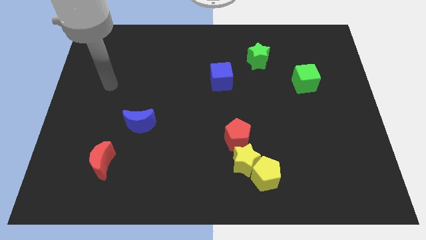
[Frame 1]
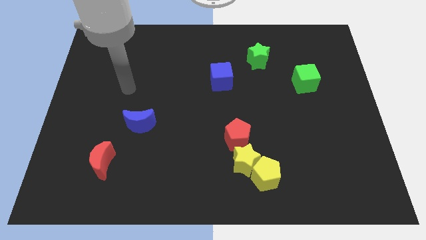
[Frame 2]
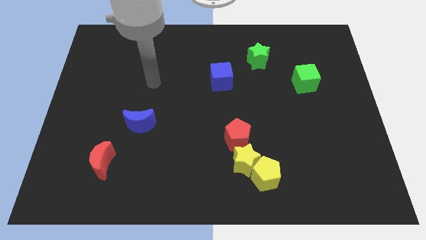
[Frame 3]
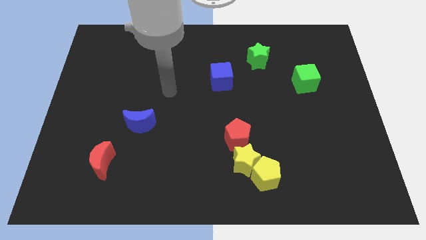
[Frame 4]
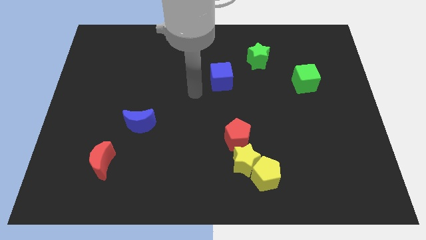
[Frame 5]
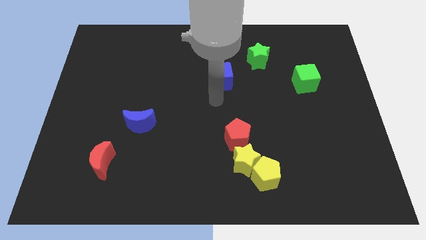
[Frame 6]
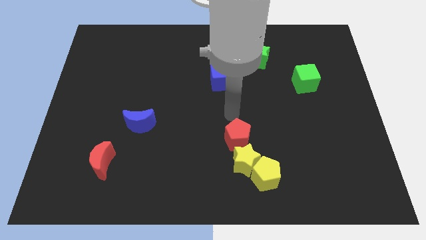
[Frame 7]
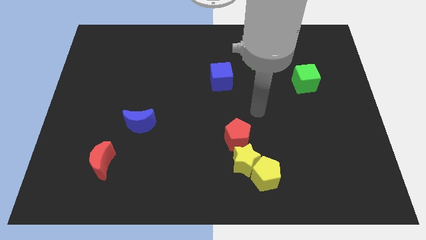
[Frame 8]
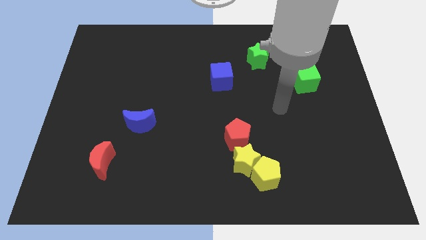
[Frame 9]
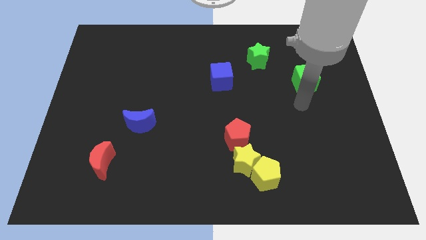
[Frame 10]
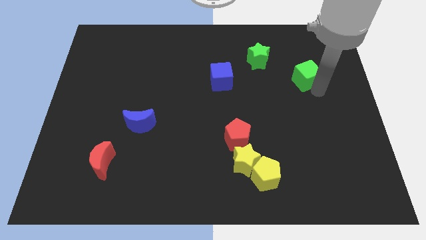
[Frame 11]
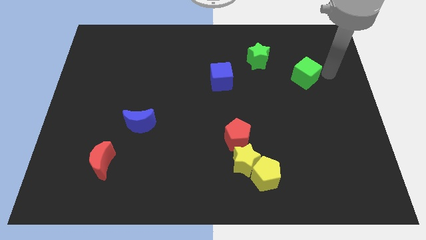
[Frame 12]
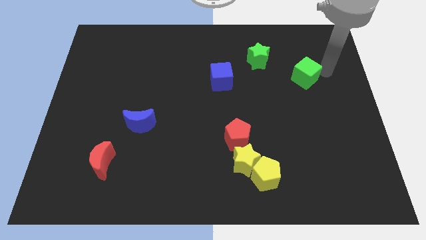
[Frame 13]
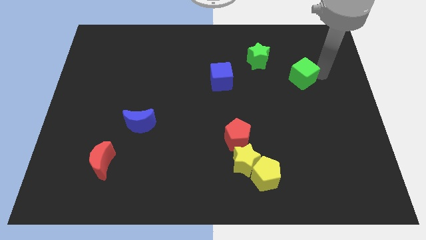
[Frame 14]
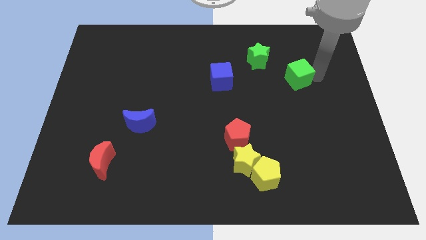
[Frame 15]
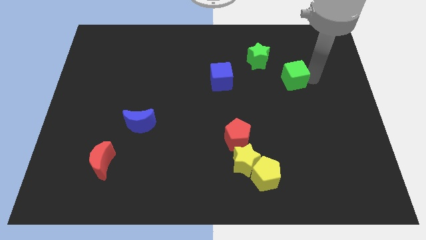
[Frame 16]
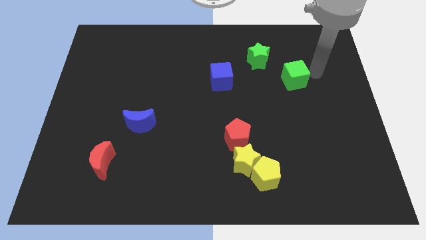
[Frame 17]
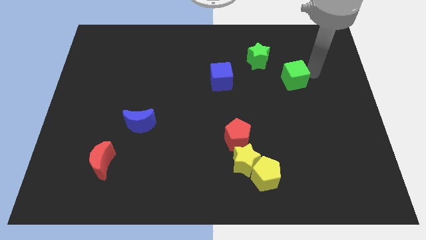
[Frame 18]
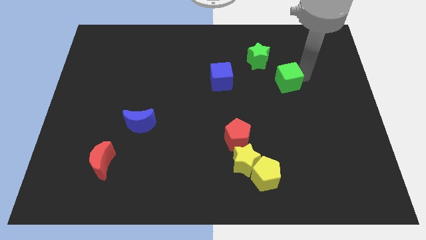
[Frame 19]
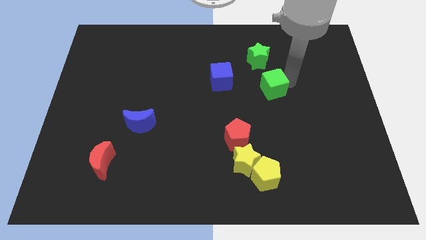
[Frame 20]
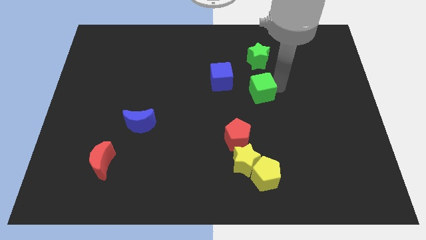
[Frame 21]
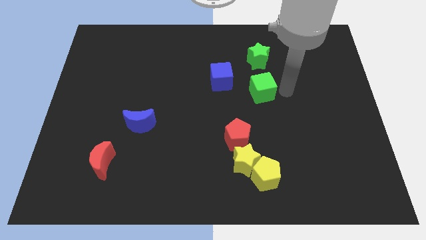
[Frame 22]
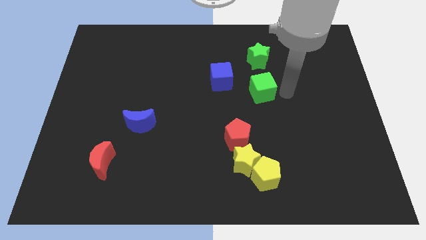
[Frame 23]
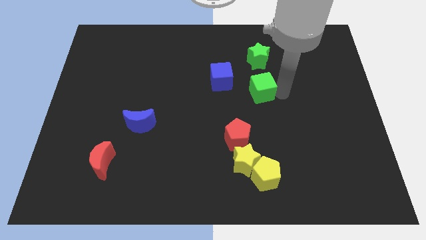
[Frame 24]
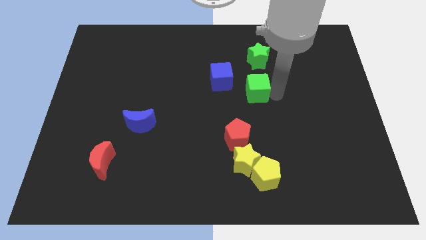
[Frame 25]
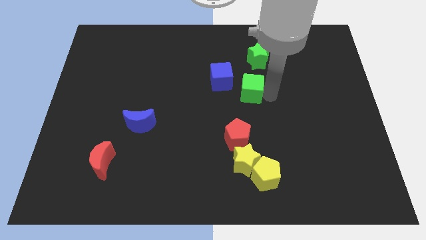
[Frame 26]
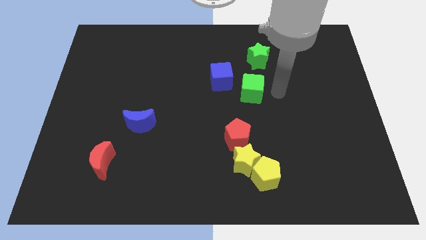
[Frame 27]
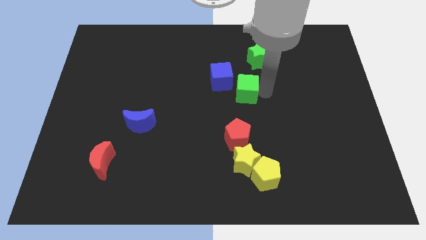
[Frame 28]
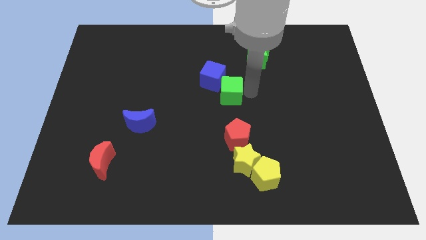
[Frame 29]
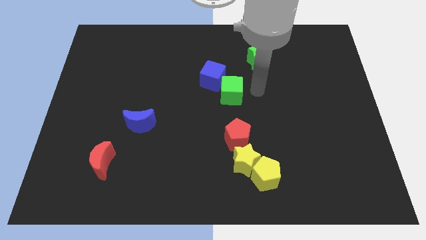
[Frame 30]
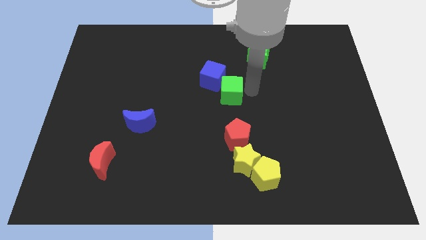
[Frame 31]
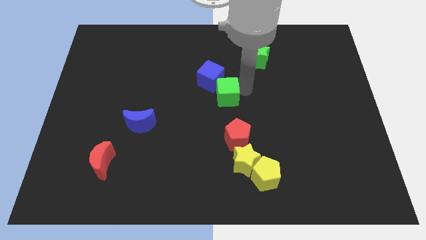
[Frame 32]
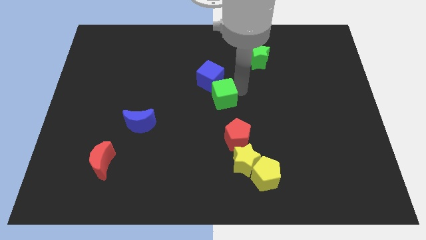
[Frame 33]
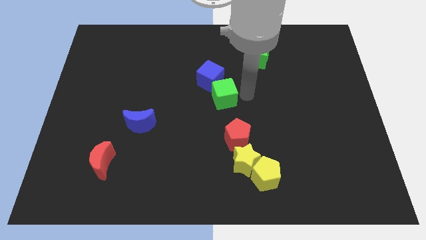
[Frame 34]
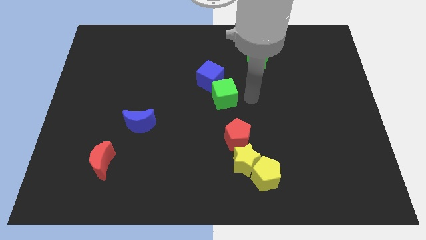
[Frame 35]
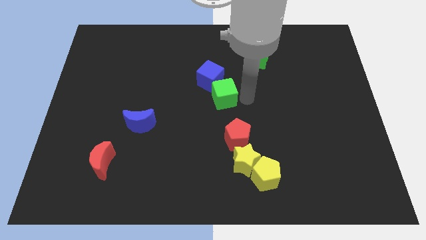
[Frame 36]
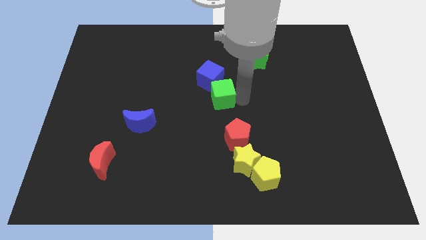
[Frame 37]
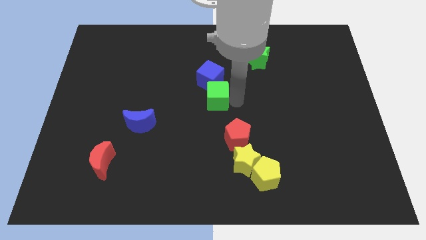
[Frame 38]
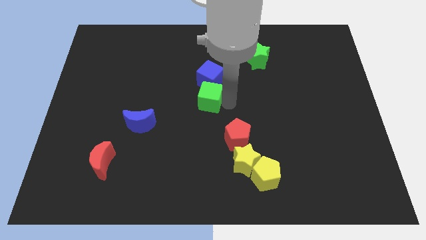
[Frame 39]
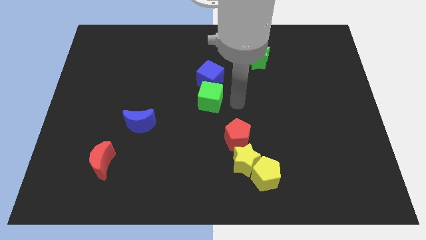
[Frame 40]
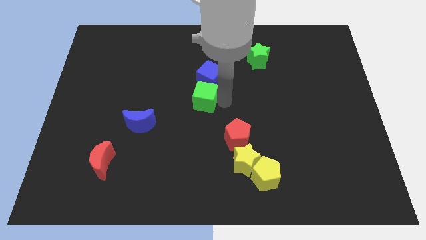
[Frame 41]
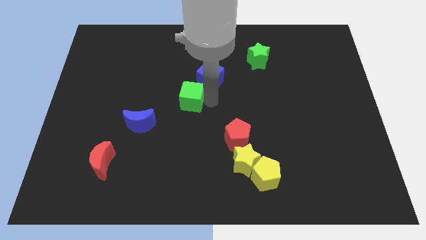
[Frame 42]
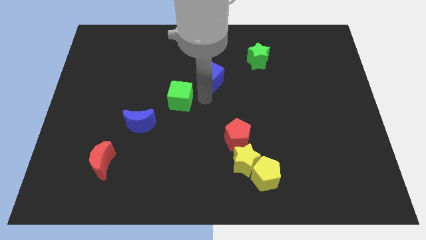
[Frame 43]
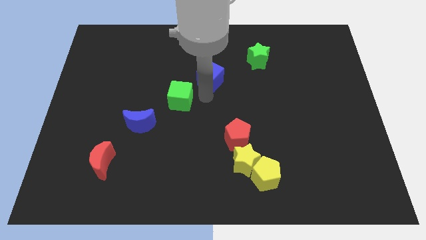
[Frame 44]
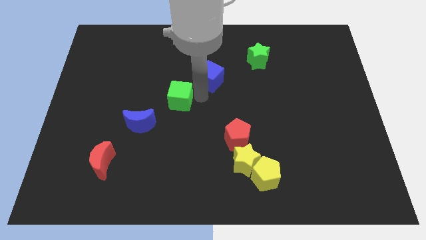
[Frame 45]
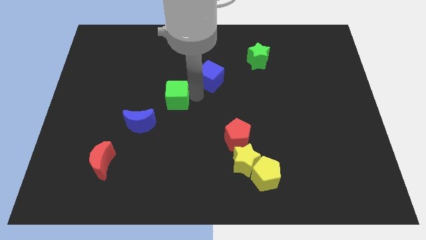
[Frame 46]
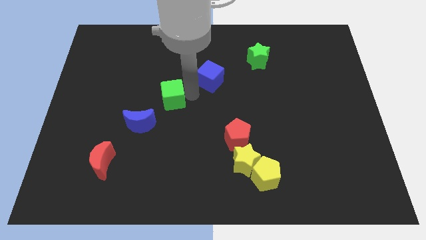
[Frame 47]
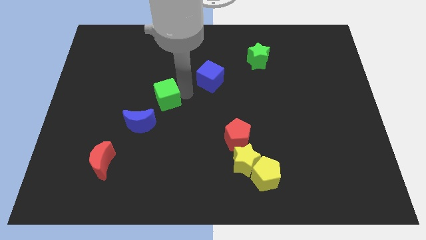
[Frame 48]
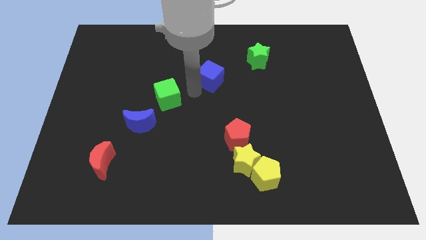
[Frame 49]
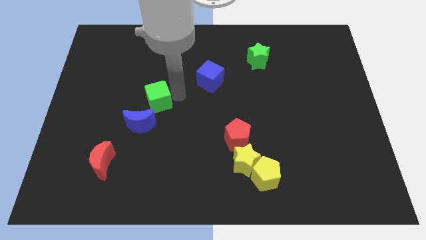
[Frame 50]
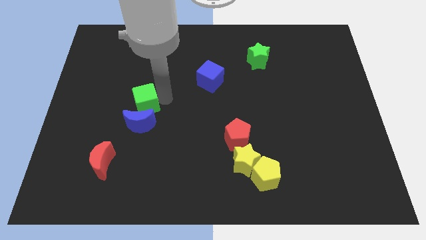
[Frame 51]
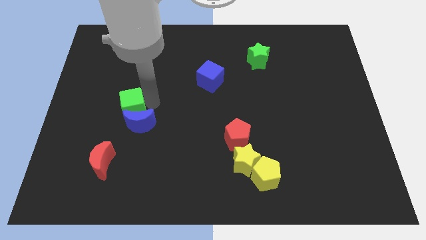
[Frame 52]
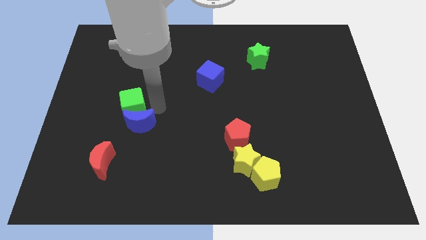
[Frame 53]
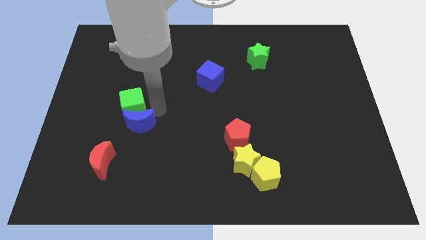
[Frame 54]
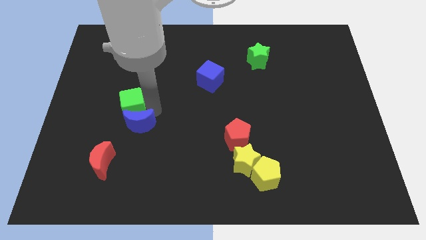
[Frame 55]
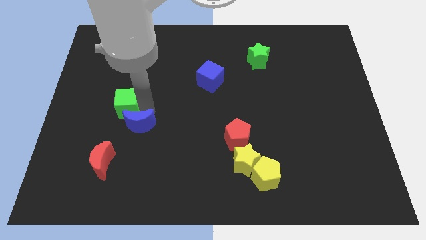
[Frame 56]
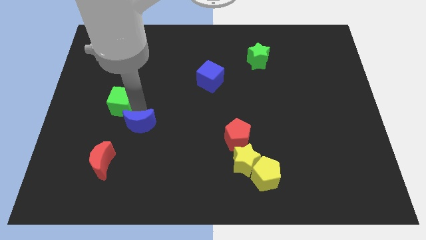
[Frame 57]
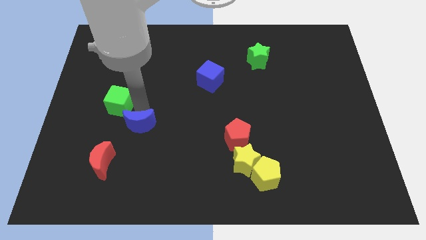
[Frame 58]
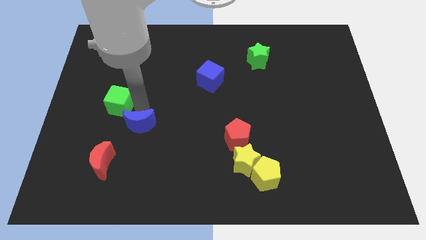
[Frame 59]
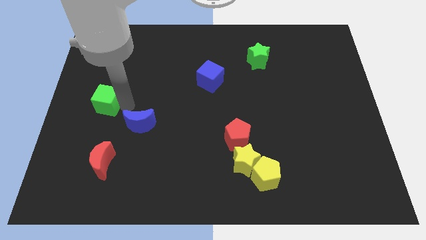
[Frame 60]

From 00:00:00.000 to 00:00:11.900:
push the green cube to the left side
